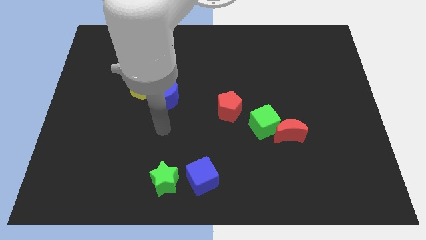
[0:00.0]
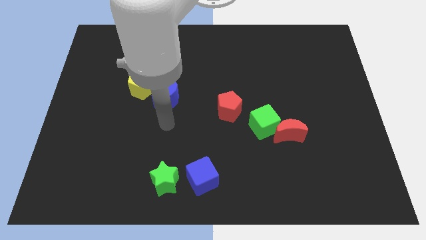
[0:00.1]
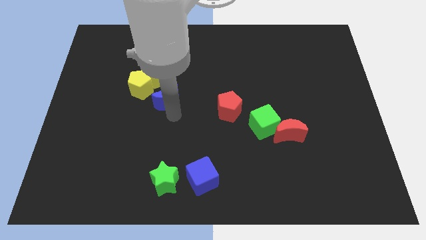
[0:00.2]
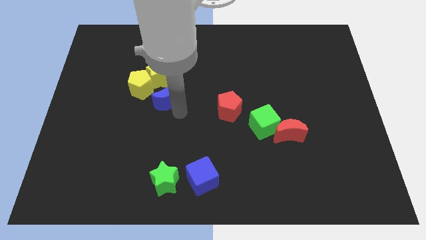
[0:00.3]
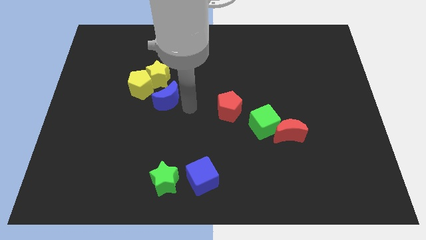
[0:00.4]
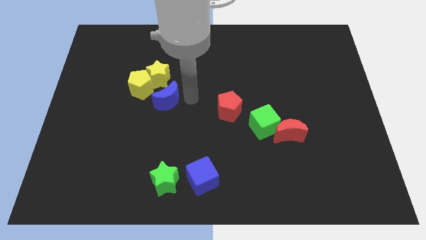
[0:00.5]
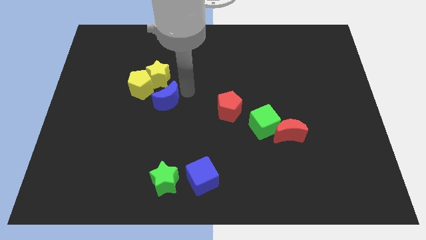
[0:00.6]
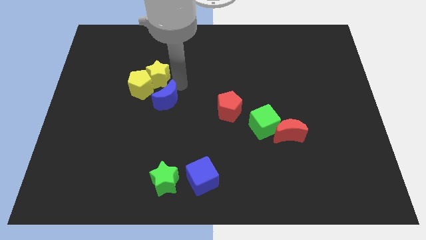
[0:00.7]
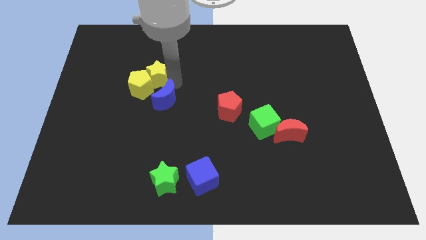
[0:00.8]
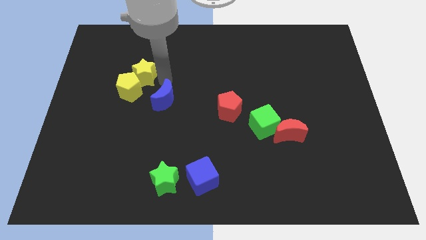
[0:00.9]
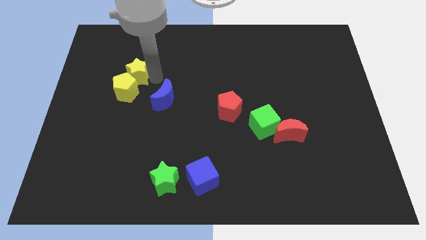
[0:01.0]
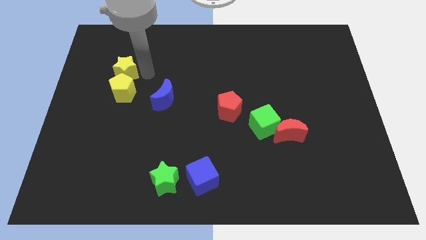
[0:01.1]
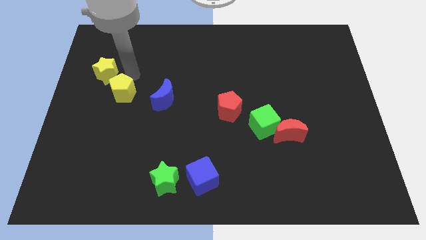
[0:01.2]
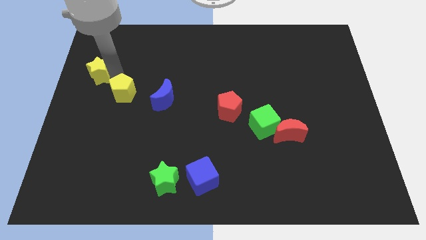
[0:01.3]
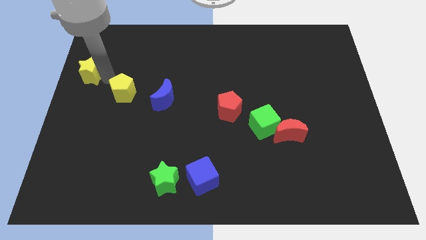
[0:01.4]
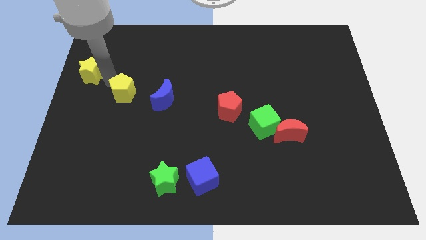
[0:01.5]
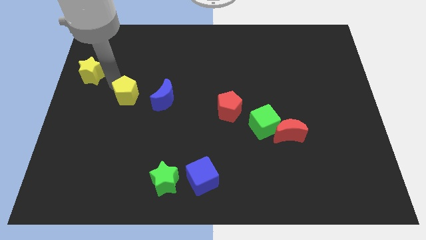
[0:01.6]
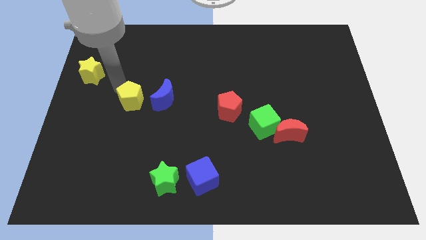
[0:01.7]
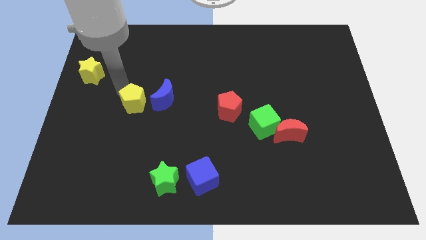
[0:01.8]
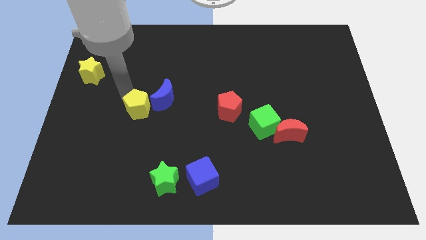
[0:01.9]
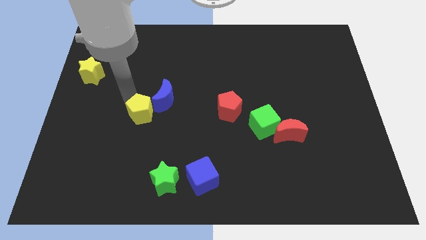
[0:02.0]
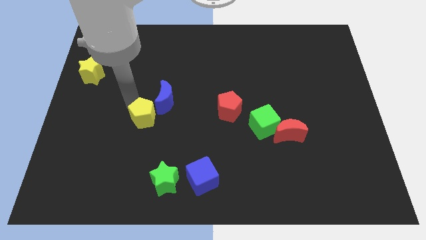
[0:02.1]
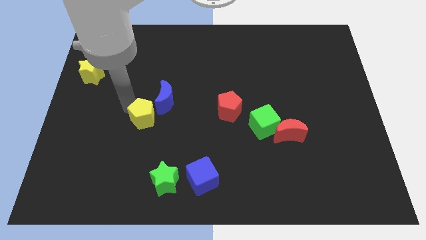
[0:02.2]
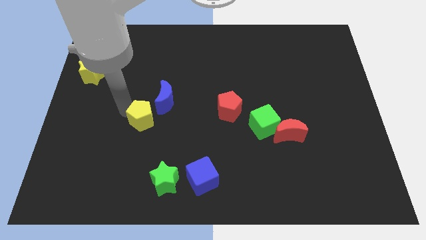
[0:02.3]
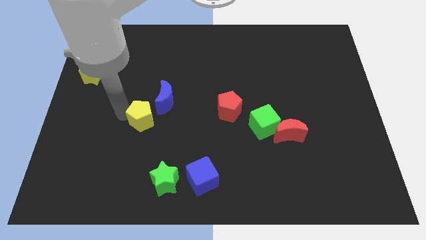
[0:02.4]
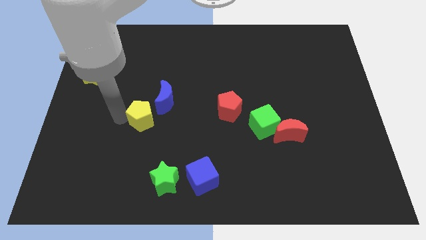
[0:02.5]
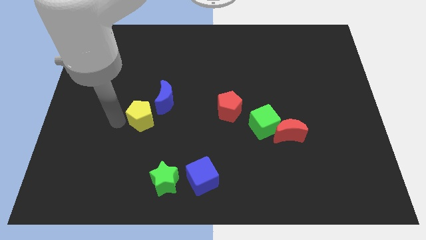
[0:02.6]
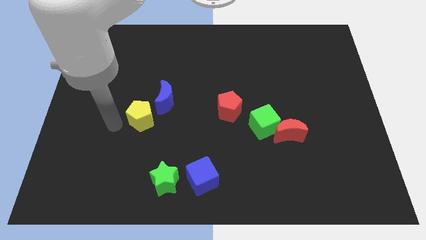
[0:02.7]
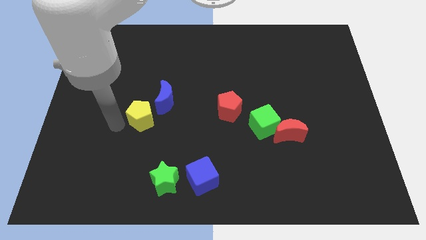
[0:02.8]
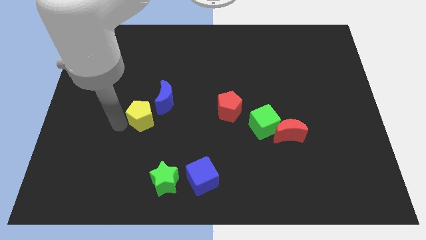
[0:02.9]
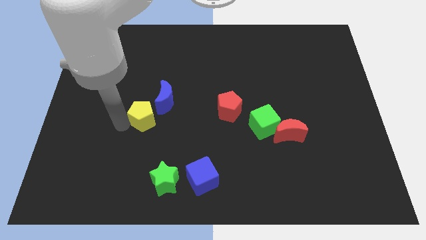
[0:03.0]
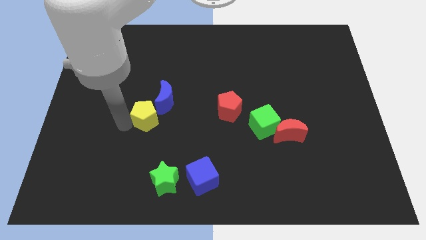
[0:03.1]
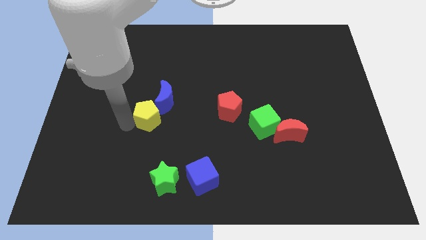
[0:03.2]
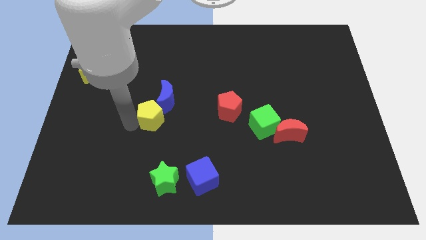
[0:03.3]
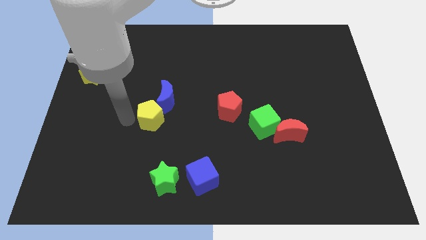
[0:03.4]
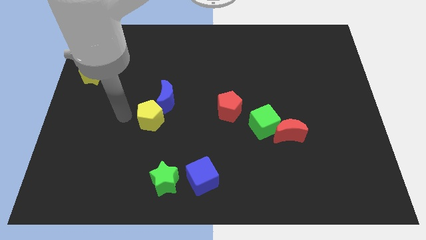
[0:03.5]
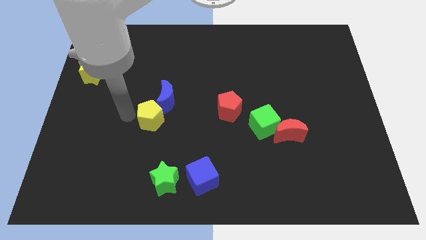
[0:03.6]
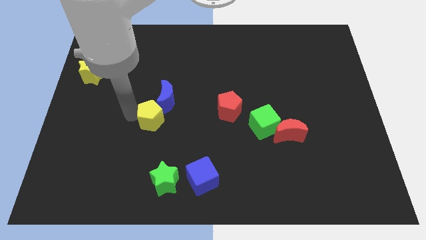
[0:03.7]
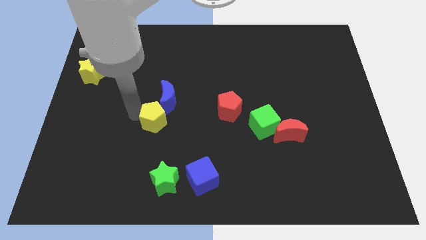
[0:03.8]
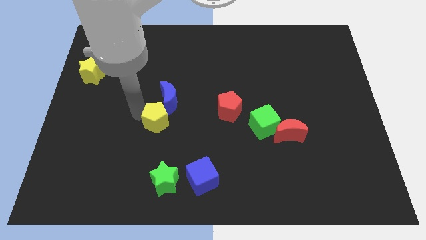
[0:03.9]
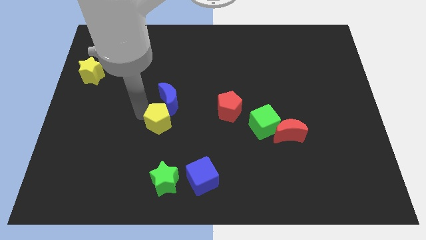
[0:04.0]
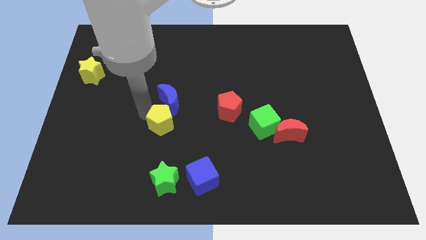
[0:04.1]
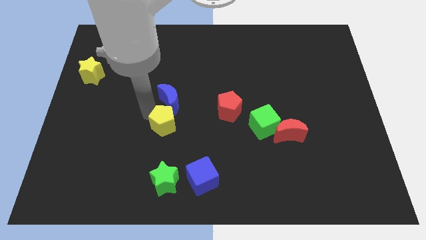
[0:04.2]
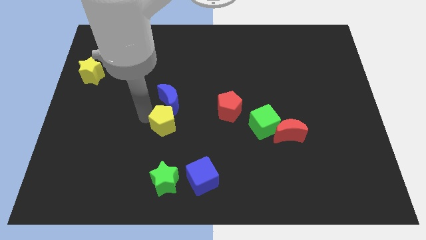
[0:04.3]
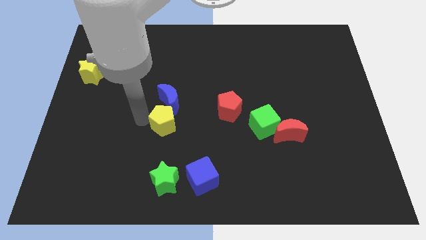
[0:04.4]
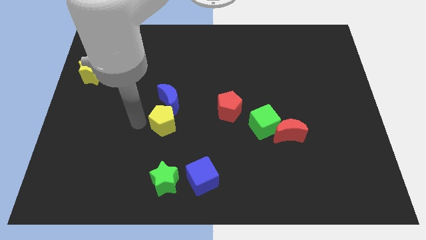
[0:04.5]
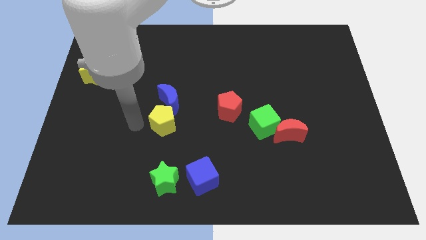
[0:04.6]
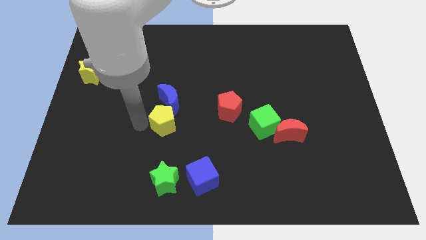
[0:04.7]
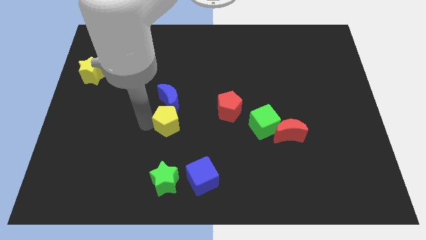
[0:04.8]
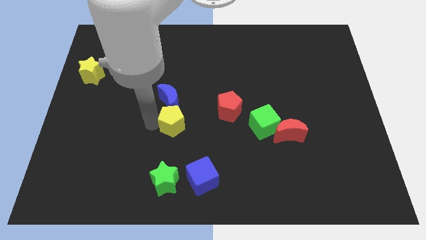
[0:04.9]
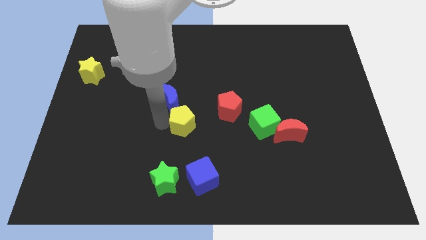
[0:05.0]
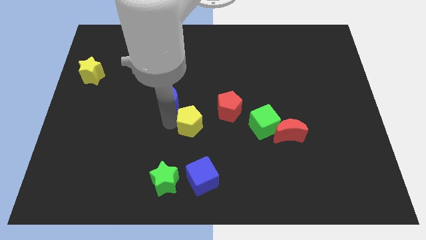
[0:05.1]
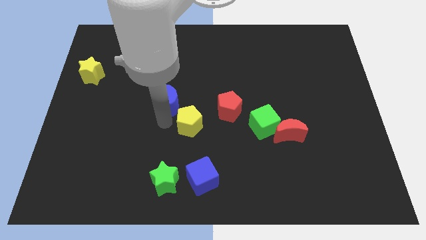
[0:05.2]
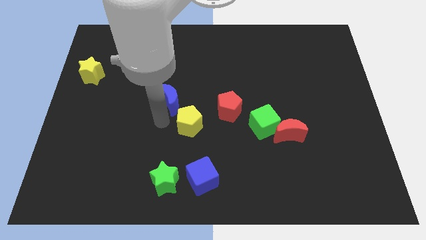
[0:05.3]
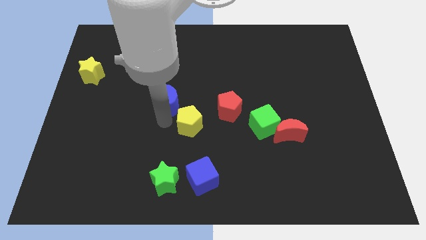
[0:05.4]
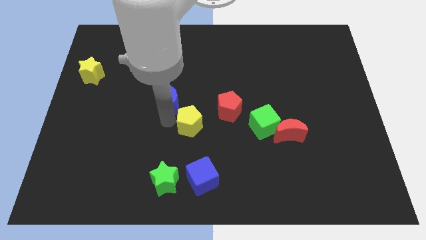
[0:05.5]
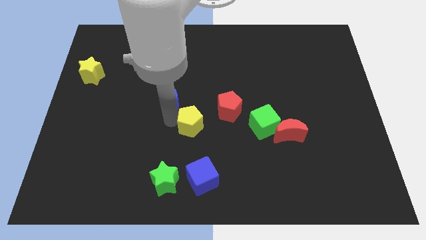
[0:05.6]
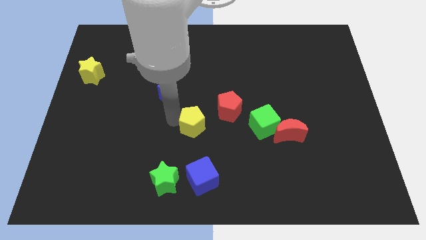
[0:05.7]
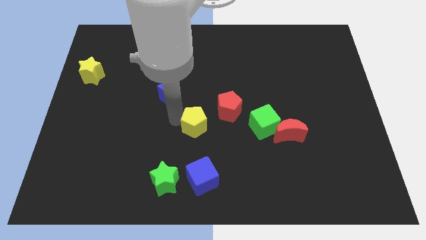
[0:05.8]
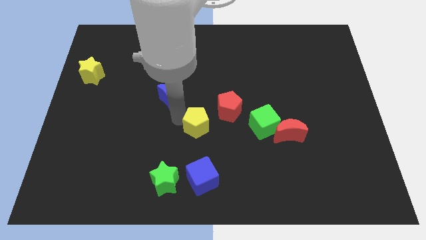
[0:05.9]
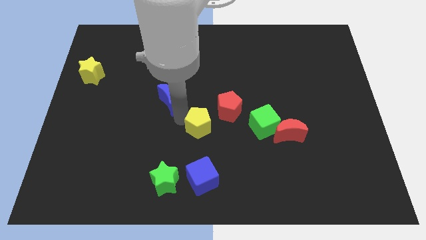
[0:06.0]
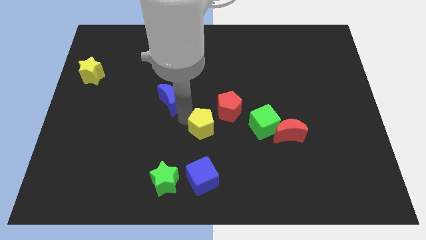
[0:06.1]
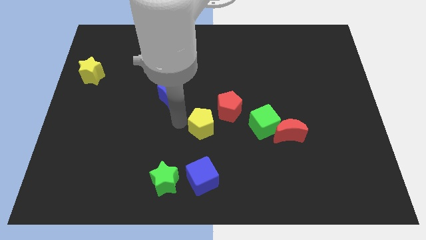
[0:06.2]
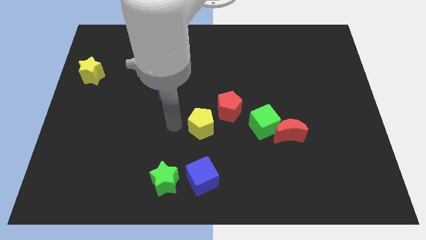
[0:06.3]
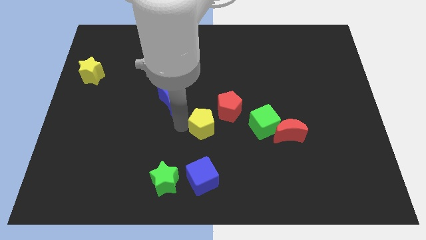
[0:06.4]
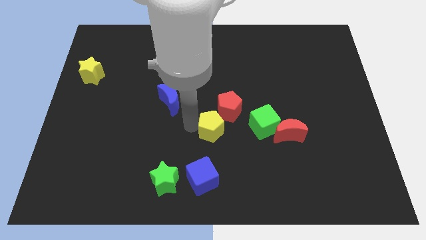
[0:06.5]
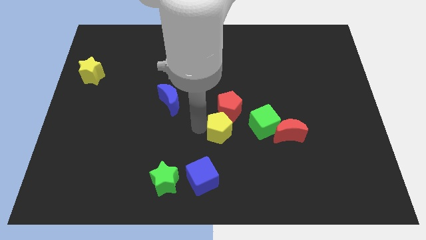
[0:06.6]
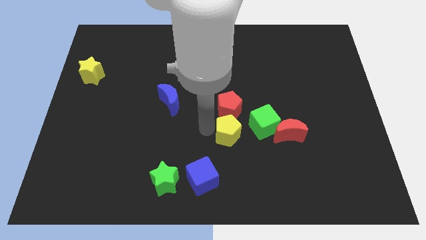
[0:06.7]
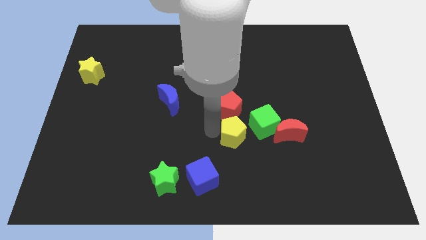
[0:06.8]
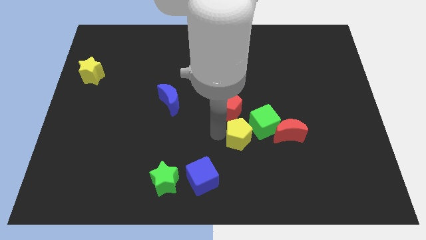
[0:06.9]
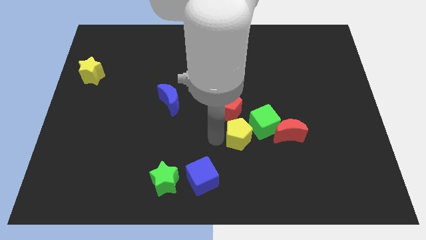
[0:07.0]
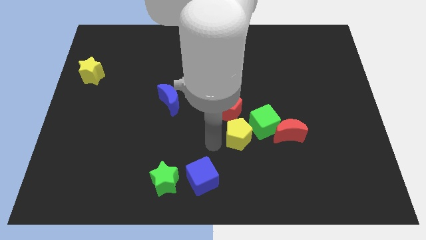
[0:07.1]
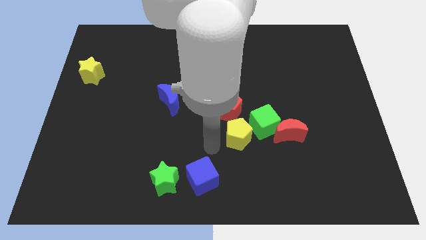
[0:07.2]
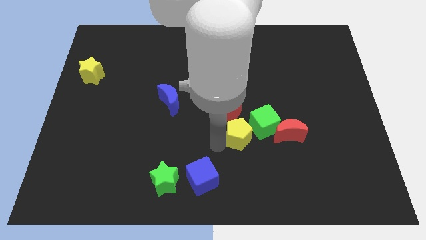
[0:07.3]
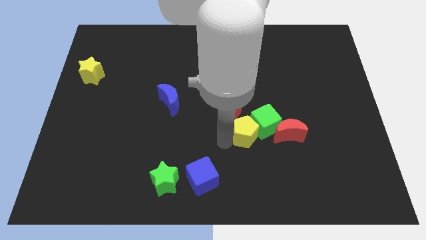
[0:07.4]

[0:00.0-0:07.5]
push the yellow pentagon to the green cube

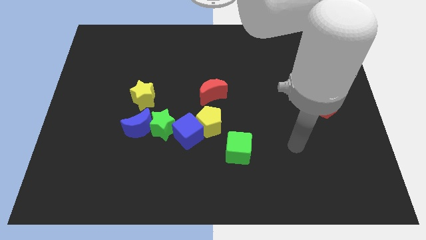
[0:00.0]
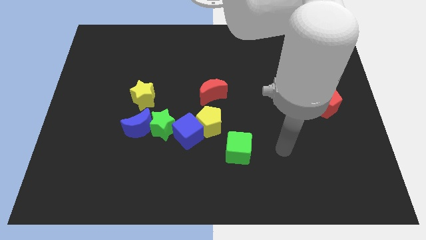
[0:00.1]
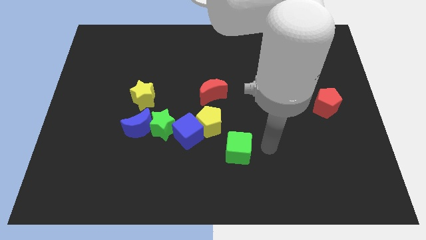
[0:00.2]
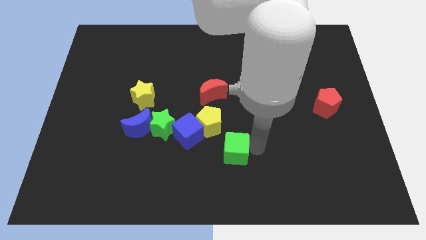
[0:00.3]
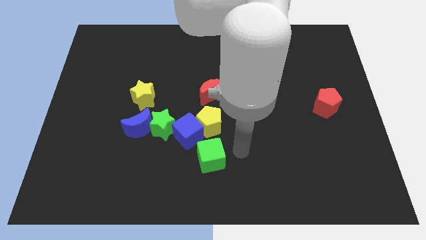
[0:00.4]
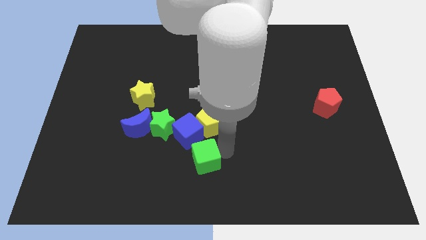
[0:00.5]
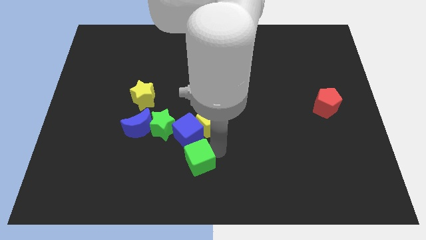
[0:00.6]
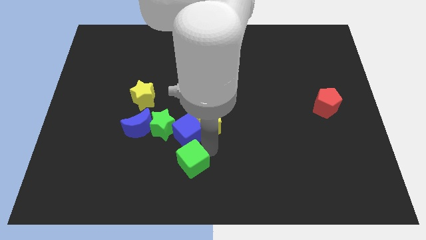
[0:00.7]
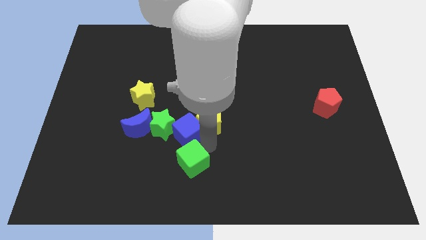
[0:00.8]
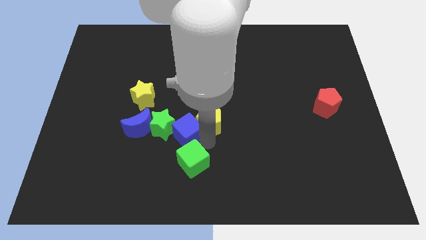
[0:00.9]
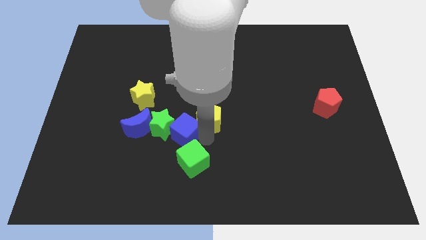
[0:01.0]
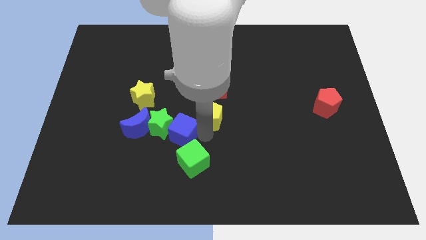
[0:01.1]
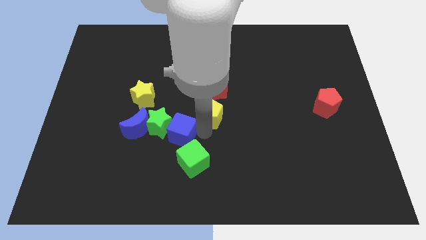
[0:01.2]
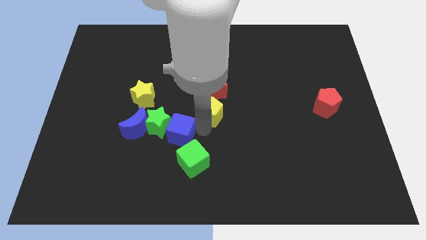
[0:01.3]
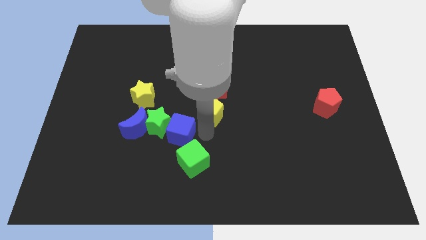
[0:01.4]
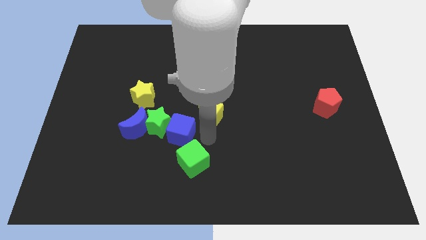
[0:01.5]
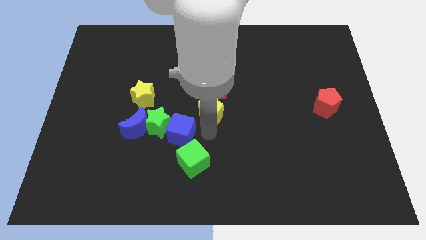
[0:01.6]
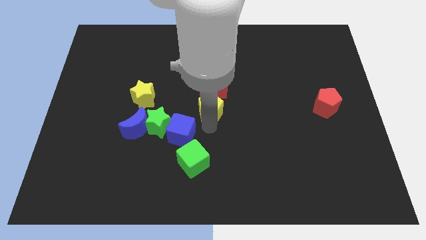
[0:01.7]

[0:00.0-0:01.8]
push the yellow pentagon close to the red moon
